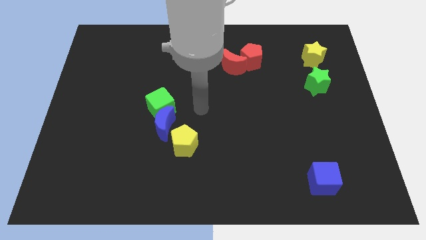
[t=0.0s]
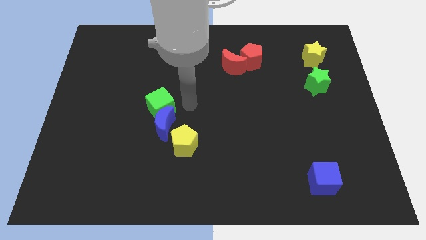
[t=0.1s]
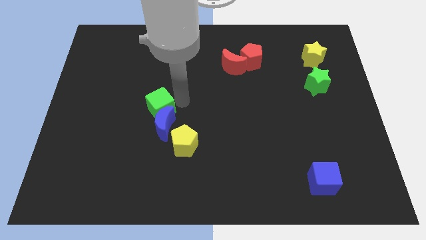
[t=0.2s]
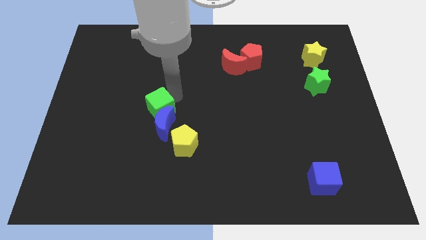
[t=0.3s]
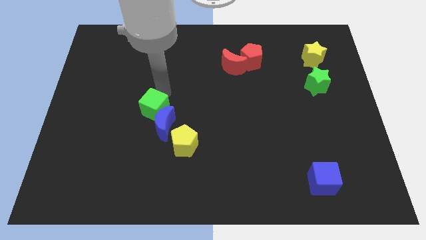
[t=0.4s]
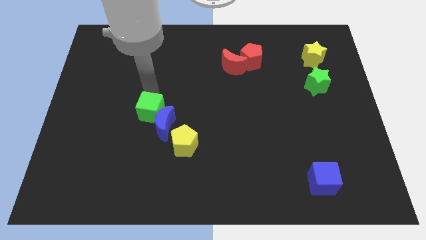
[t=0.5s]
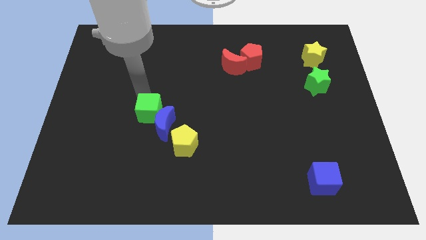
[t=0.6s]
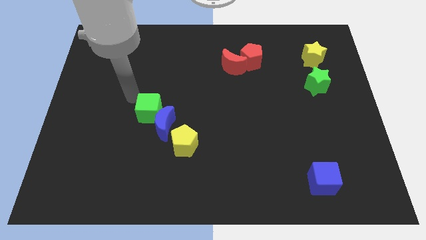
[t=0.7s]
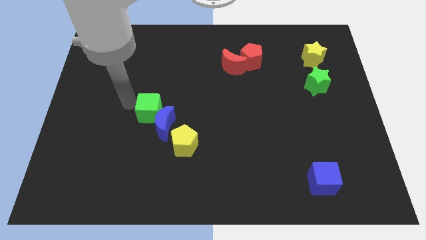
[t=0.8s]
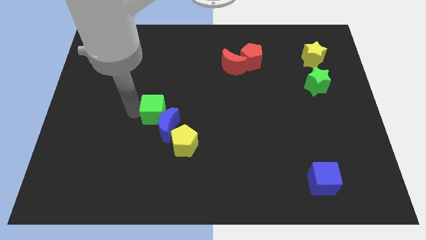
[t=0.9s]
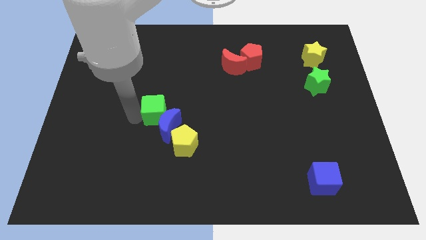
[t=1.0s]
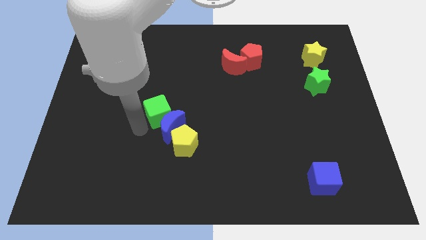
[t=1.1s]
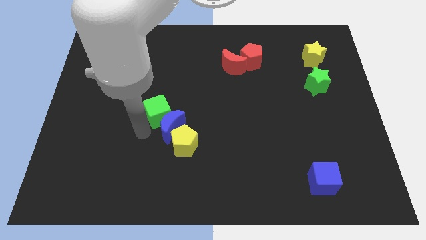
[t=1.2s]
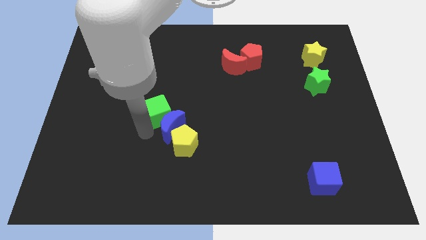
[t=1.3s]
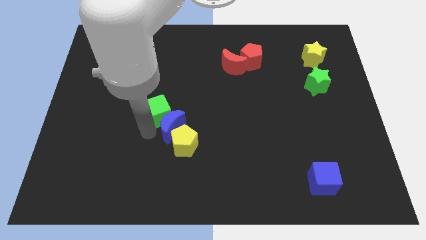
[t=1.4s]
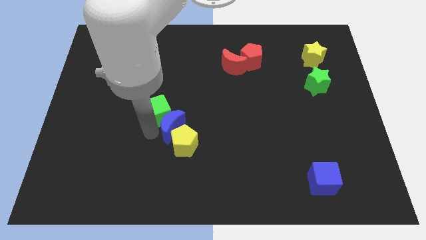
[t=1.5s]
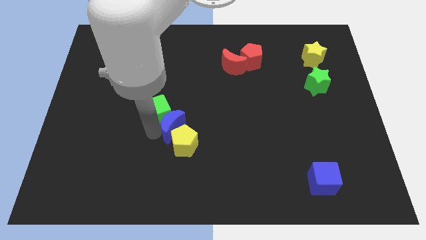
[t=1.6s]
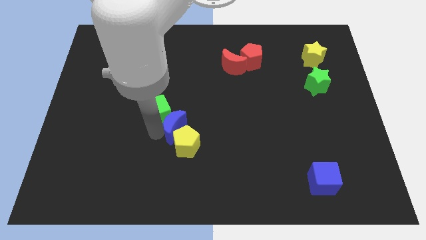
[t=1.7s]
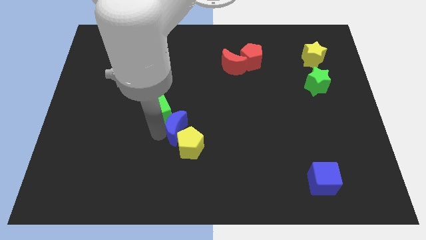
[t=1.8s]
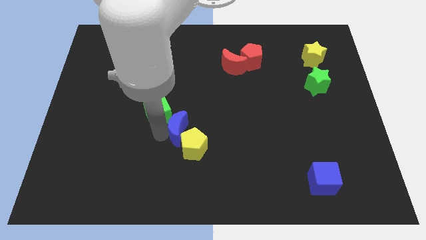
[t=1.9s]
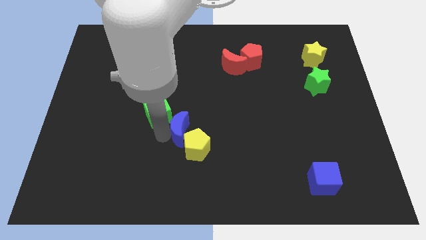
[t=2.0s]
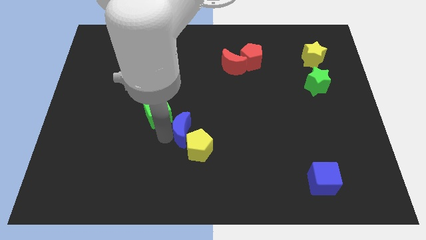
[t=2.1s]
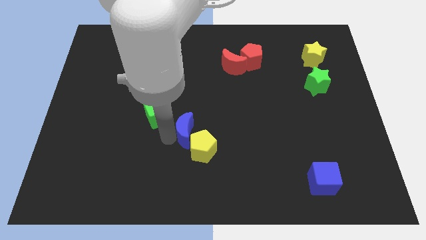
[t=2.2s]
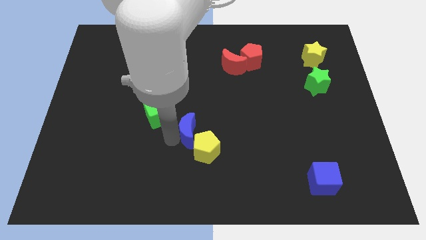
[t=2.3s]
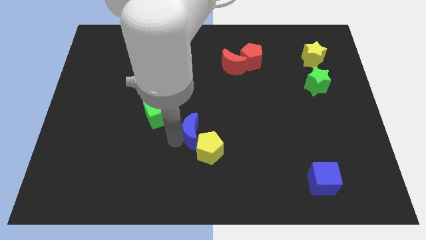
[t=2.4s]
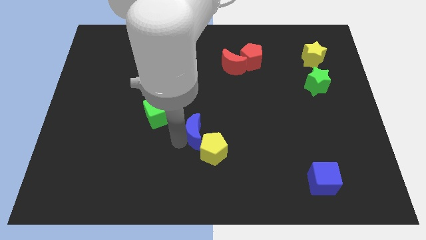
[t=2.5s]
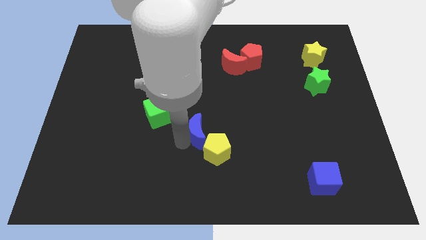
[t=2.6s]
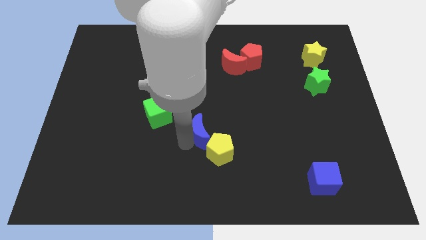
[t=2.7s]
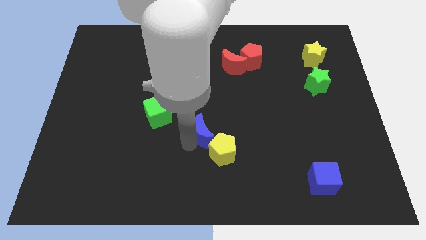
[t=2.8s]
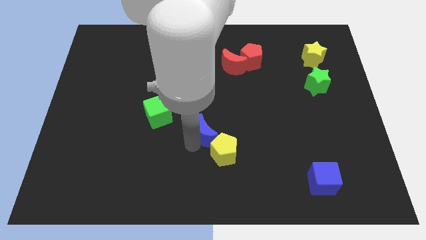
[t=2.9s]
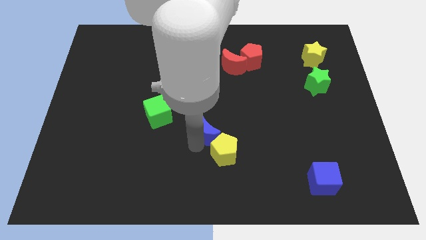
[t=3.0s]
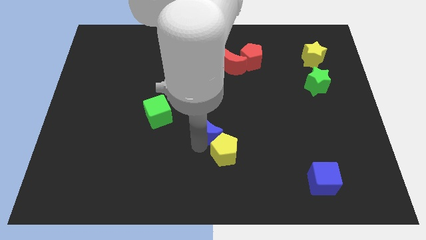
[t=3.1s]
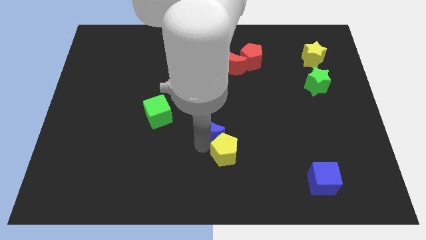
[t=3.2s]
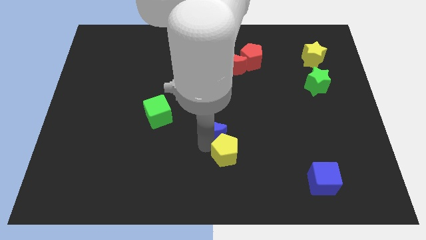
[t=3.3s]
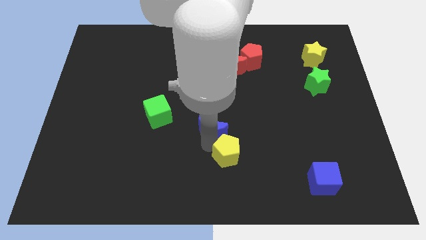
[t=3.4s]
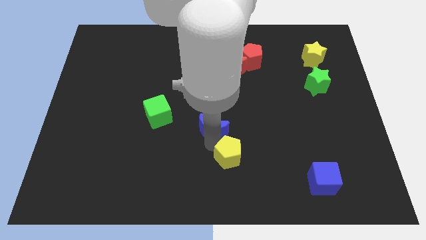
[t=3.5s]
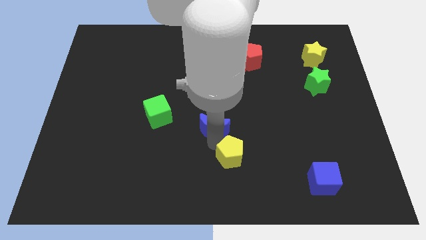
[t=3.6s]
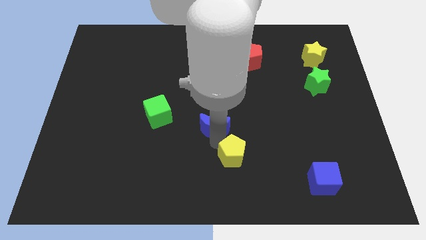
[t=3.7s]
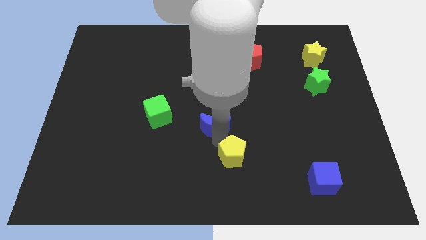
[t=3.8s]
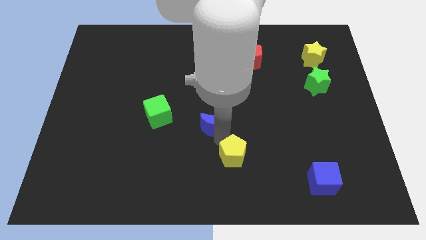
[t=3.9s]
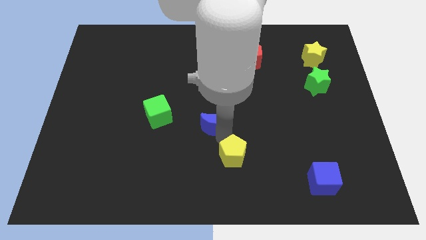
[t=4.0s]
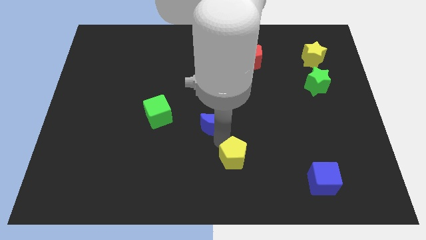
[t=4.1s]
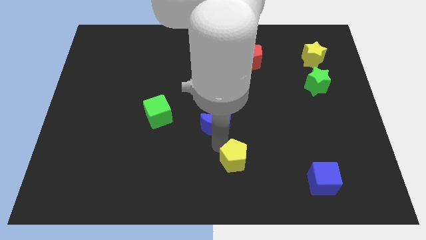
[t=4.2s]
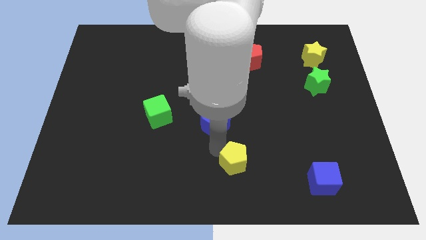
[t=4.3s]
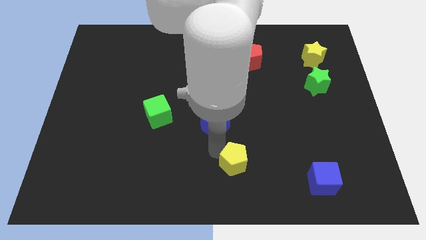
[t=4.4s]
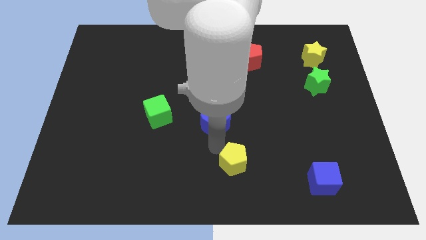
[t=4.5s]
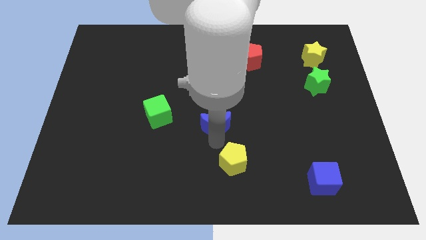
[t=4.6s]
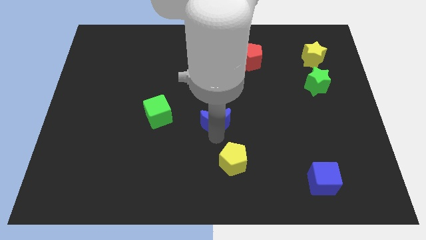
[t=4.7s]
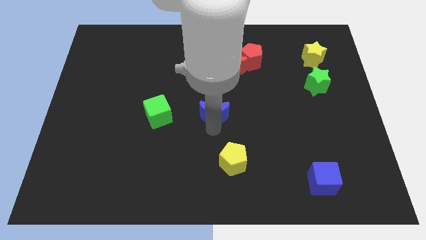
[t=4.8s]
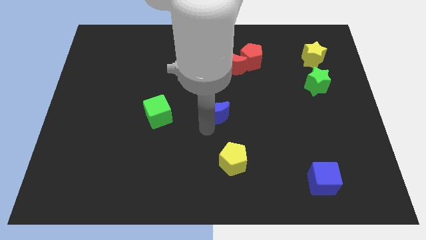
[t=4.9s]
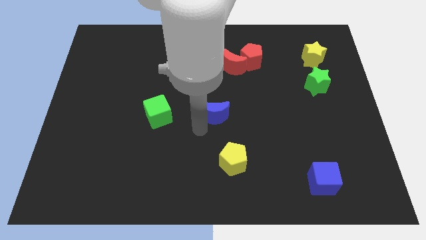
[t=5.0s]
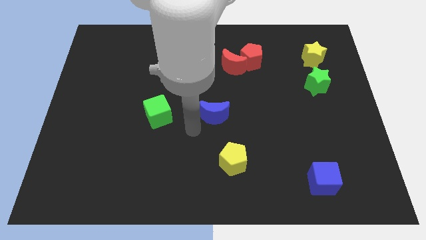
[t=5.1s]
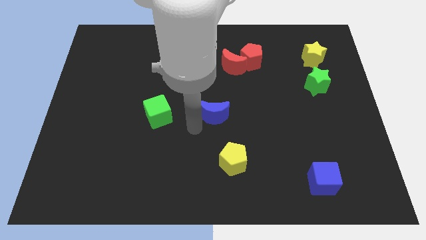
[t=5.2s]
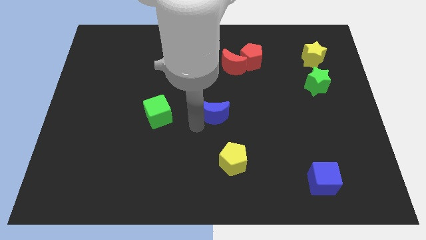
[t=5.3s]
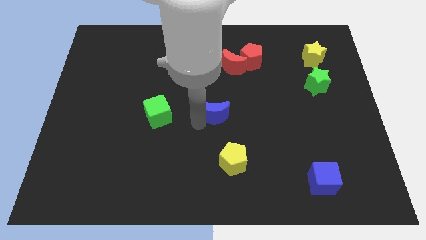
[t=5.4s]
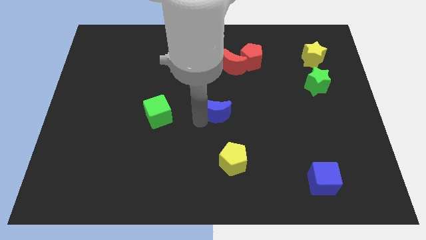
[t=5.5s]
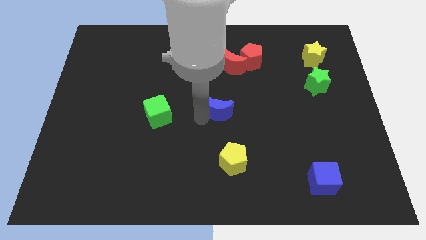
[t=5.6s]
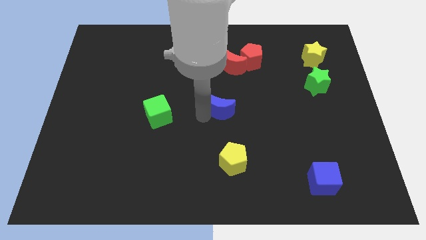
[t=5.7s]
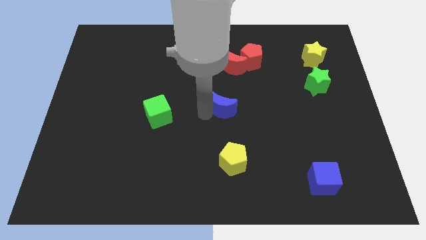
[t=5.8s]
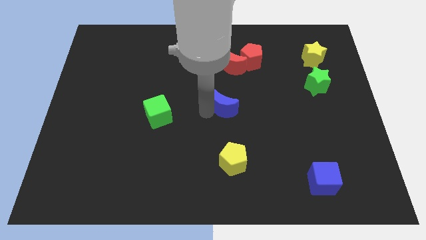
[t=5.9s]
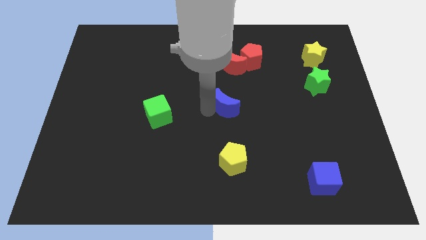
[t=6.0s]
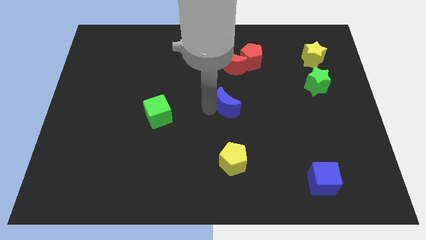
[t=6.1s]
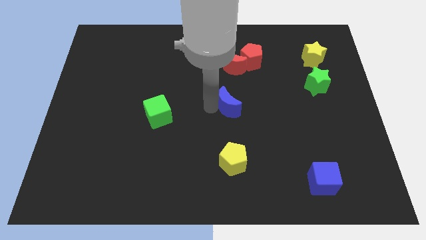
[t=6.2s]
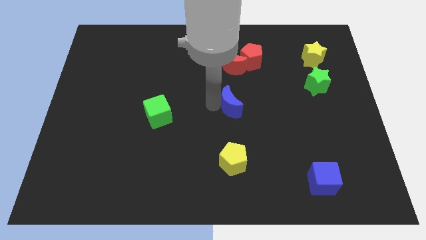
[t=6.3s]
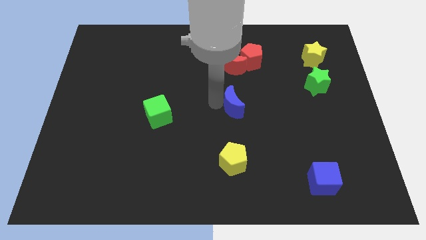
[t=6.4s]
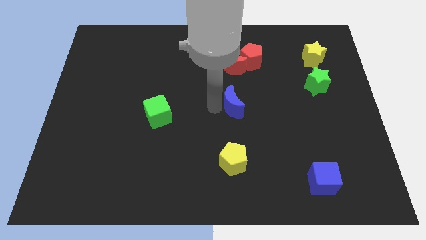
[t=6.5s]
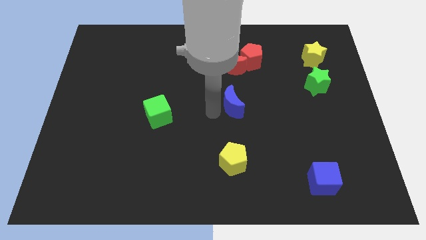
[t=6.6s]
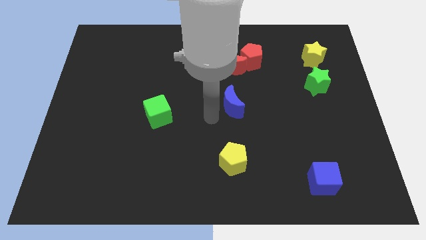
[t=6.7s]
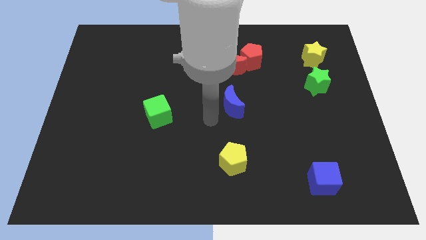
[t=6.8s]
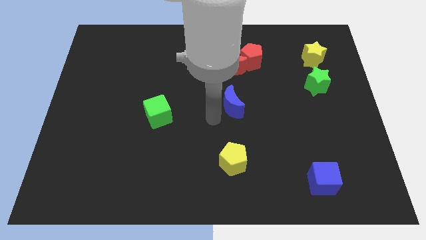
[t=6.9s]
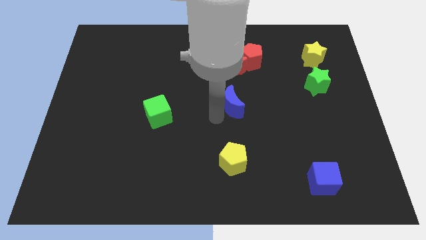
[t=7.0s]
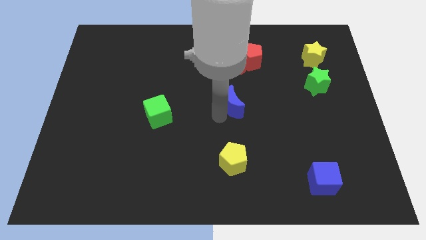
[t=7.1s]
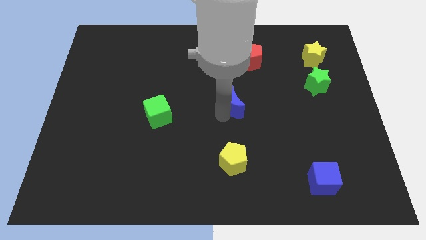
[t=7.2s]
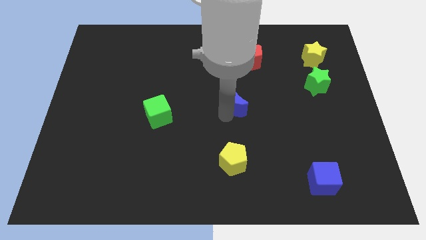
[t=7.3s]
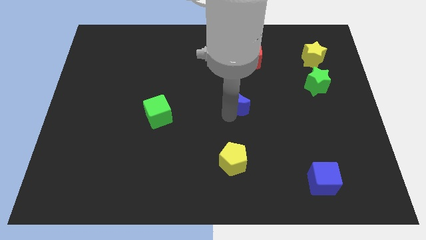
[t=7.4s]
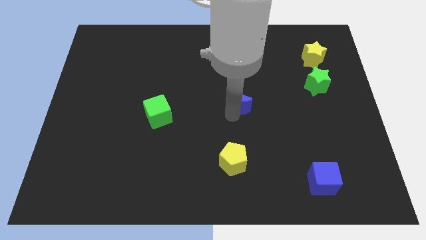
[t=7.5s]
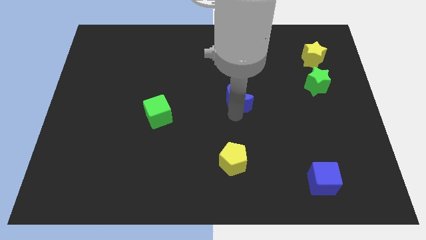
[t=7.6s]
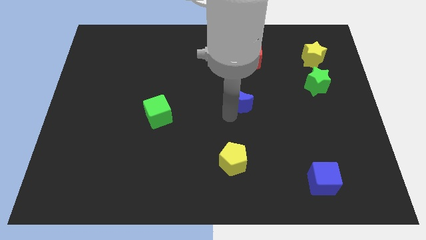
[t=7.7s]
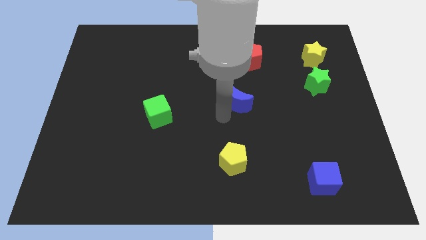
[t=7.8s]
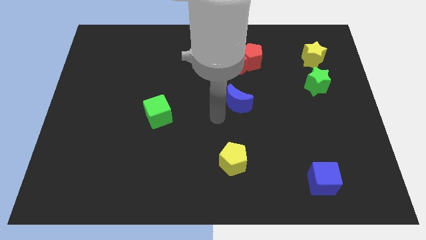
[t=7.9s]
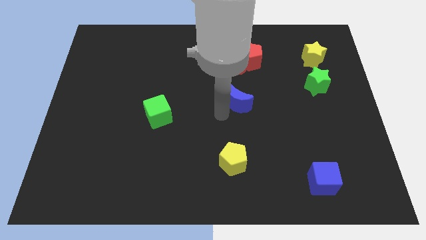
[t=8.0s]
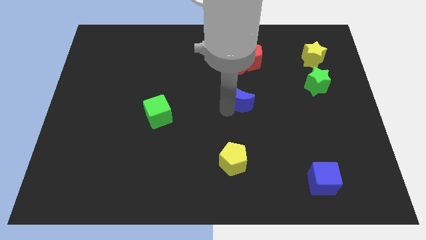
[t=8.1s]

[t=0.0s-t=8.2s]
put the blue moon to the bottom of the red pentagon
